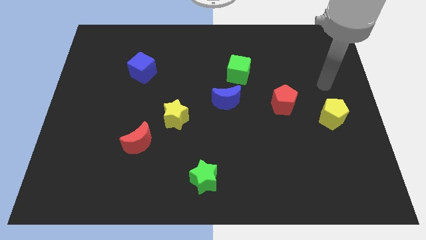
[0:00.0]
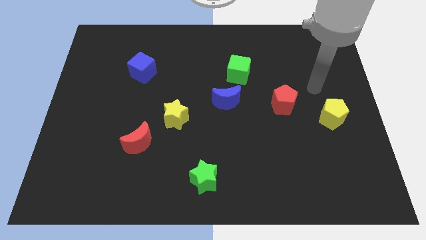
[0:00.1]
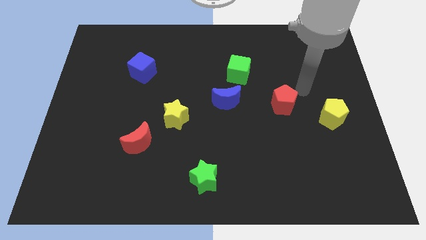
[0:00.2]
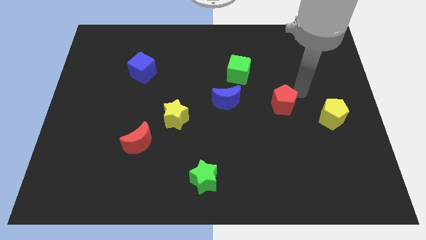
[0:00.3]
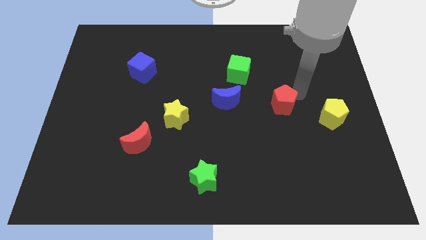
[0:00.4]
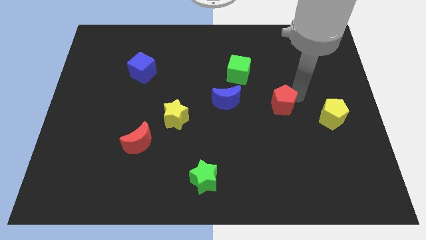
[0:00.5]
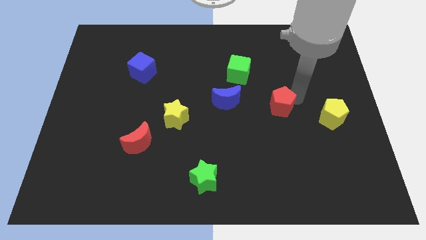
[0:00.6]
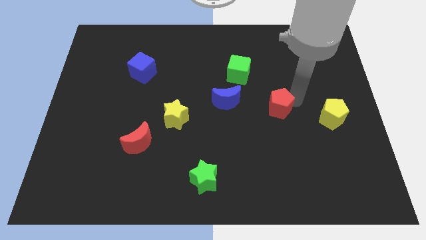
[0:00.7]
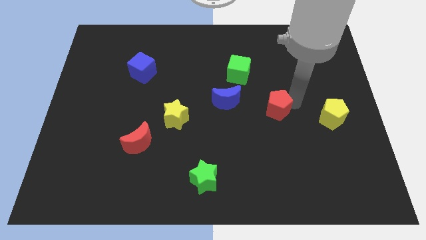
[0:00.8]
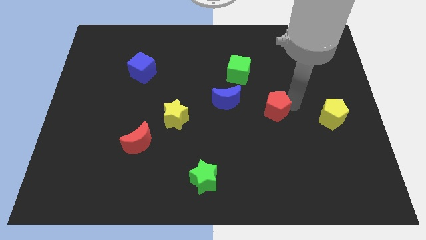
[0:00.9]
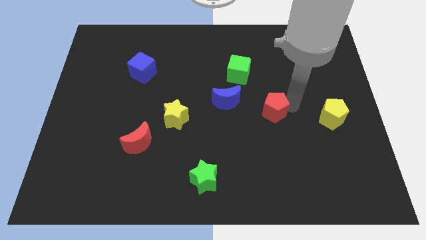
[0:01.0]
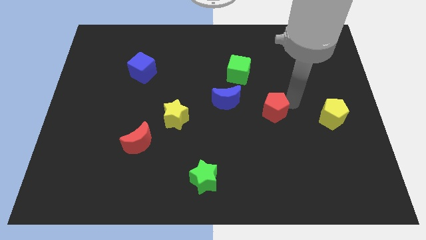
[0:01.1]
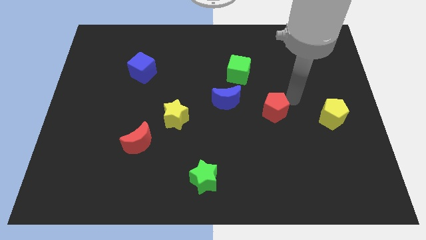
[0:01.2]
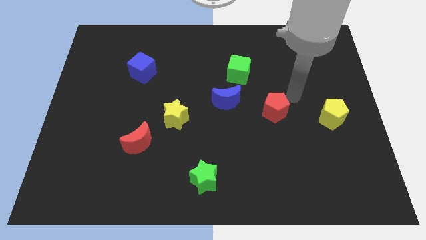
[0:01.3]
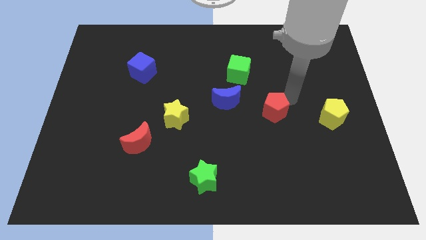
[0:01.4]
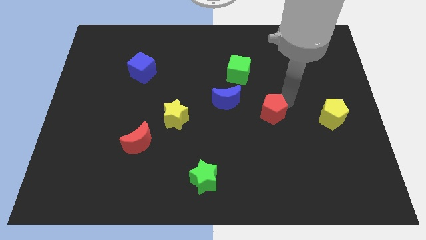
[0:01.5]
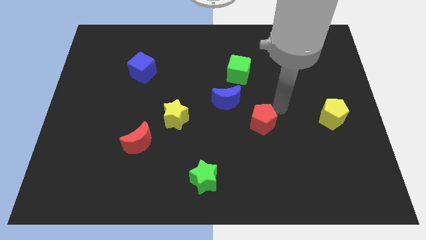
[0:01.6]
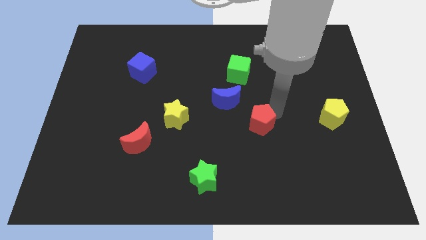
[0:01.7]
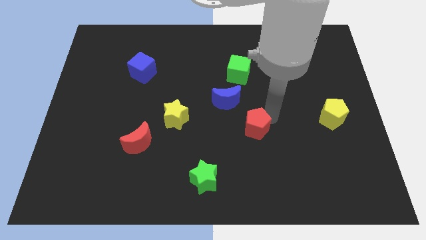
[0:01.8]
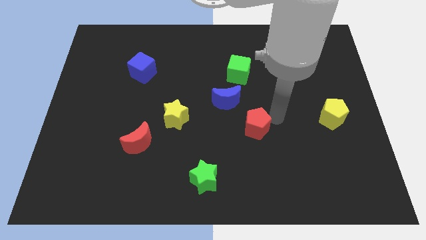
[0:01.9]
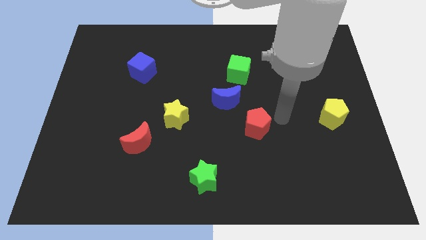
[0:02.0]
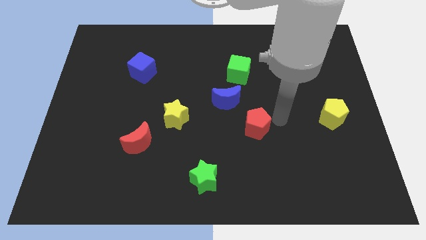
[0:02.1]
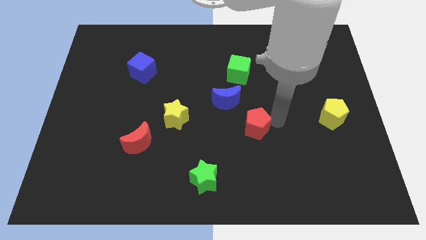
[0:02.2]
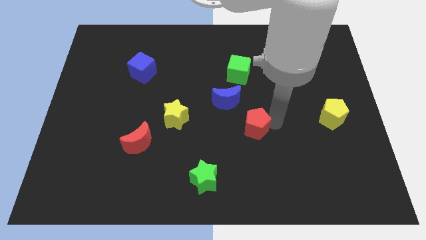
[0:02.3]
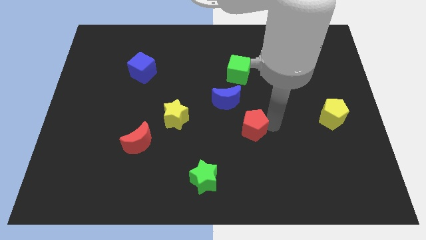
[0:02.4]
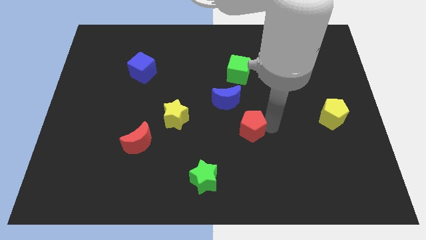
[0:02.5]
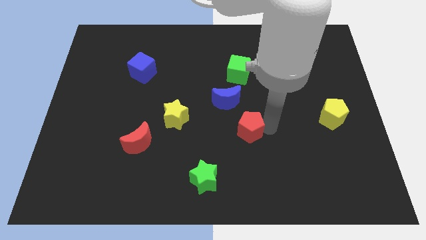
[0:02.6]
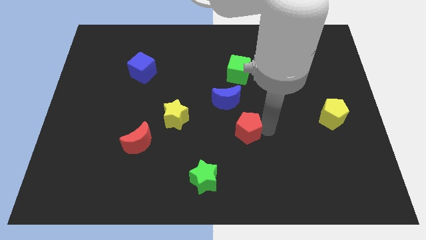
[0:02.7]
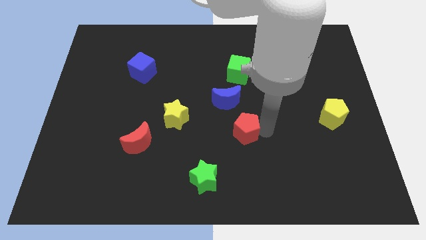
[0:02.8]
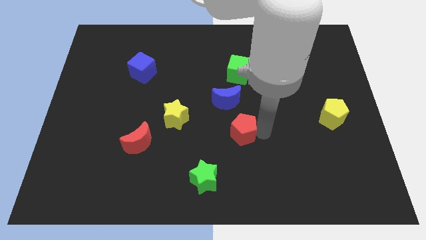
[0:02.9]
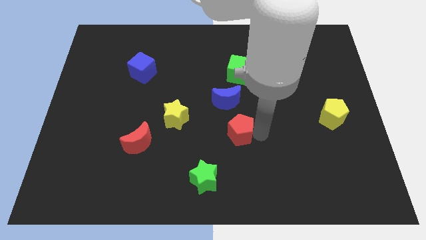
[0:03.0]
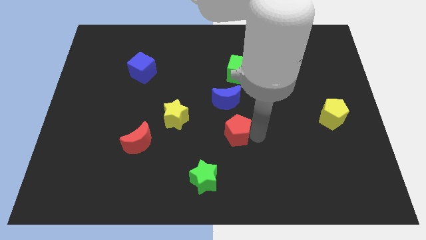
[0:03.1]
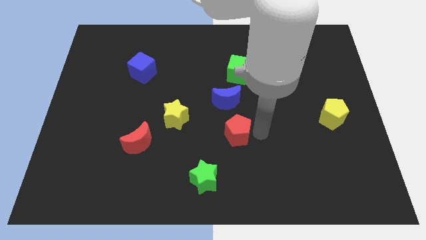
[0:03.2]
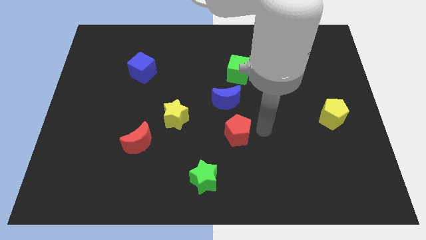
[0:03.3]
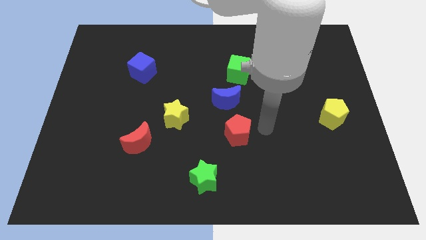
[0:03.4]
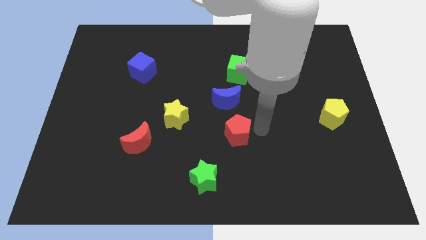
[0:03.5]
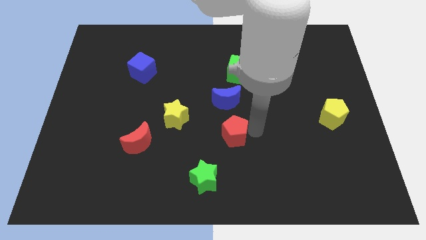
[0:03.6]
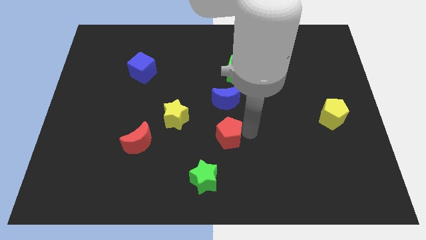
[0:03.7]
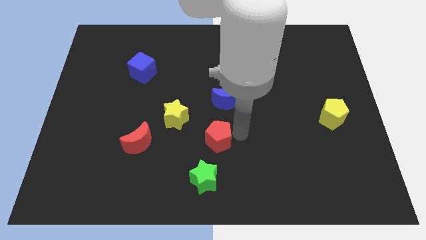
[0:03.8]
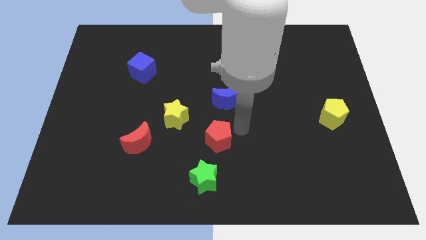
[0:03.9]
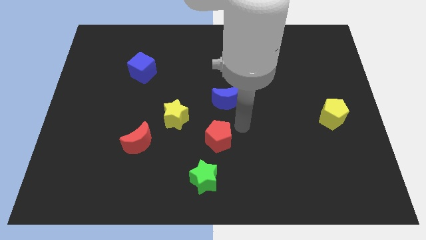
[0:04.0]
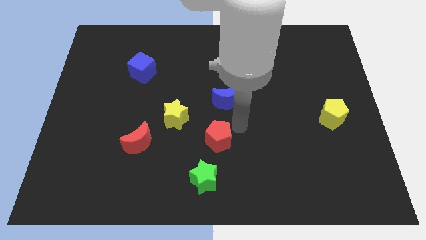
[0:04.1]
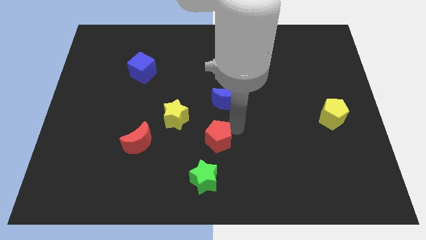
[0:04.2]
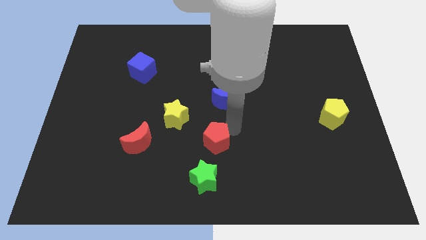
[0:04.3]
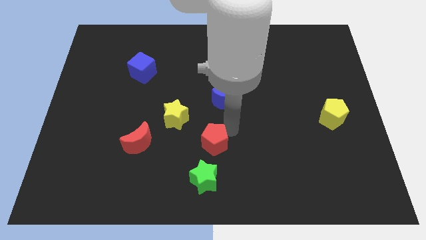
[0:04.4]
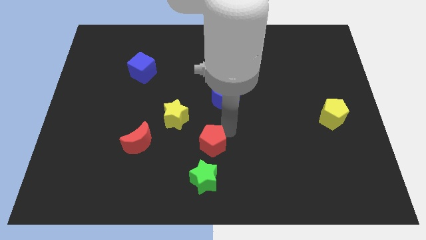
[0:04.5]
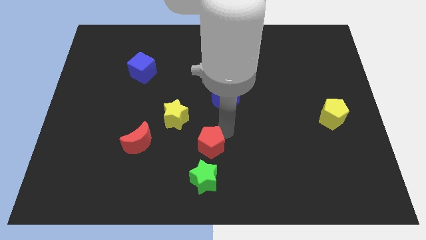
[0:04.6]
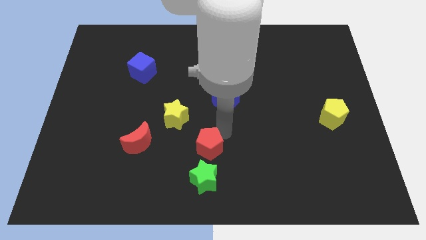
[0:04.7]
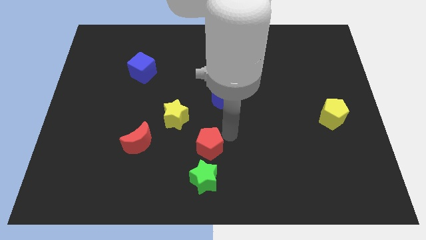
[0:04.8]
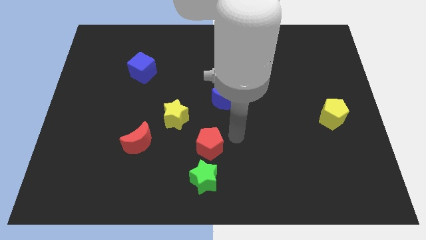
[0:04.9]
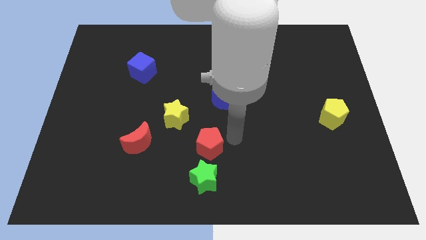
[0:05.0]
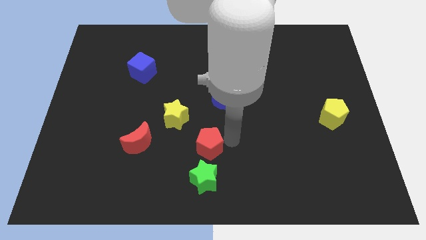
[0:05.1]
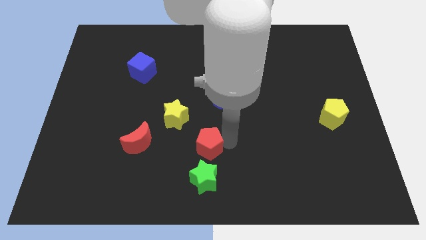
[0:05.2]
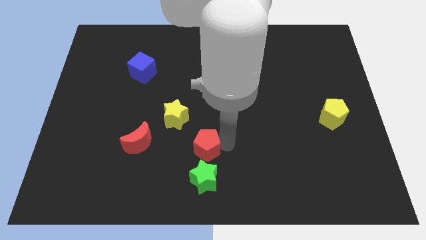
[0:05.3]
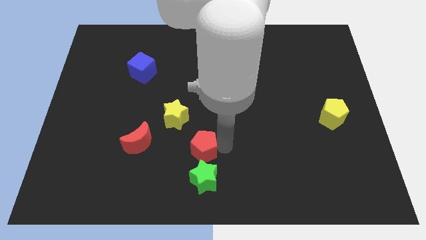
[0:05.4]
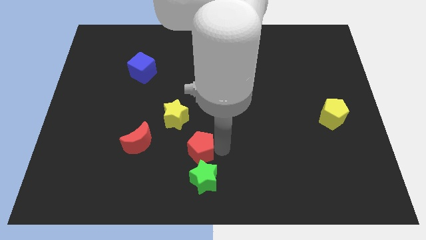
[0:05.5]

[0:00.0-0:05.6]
slide the red pentagon to the top left of the green star

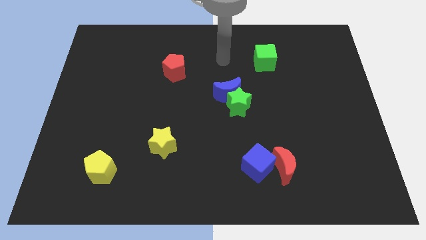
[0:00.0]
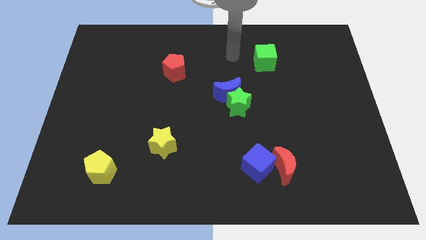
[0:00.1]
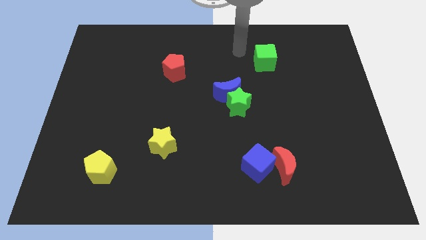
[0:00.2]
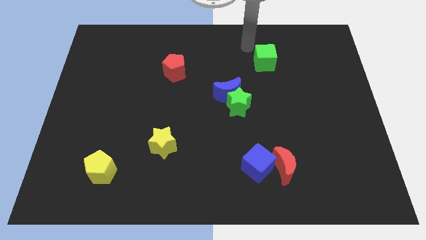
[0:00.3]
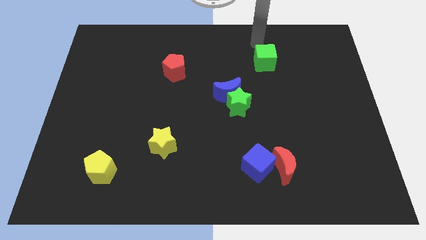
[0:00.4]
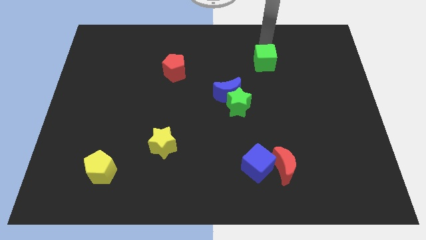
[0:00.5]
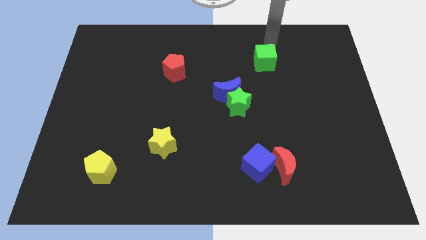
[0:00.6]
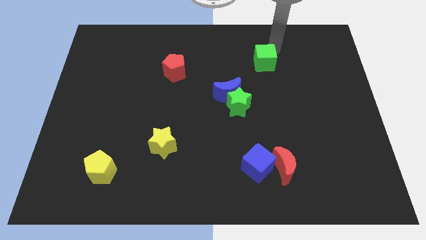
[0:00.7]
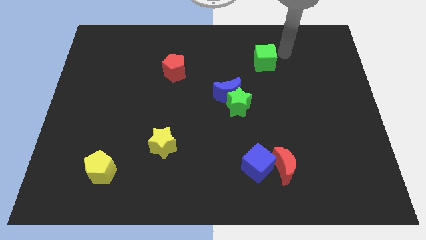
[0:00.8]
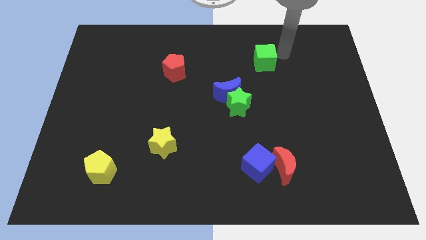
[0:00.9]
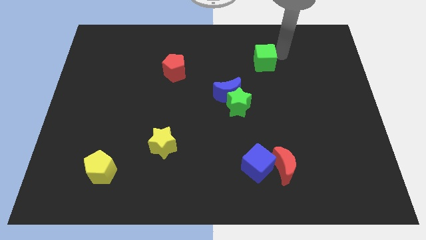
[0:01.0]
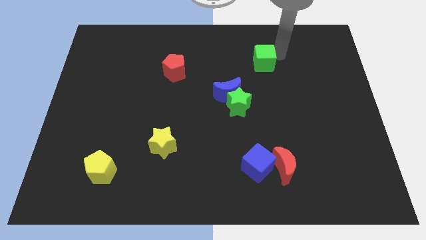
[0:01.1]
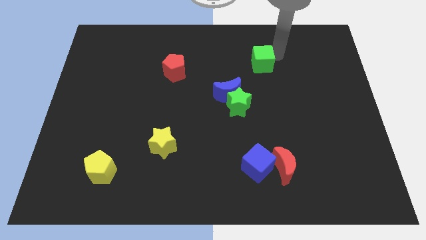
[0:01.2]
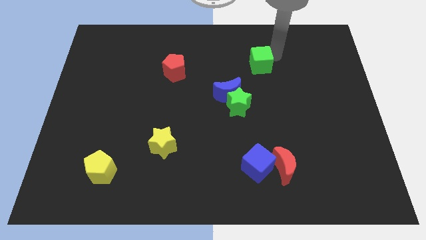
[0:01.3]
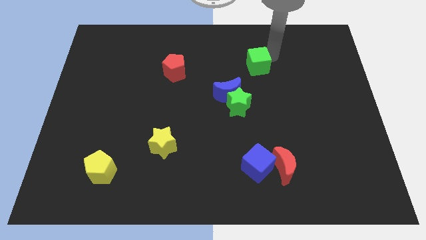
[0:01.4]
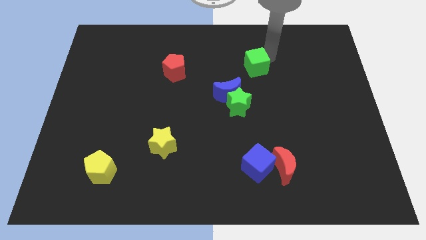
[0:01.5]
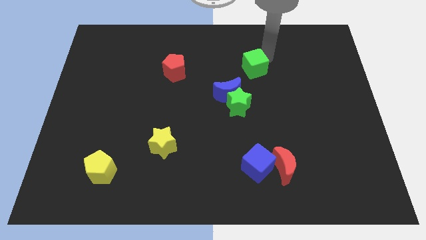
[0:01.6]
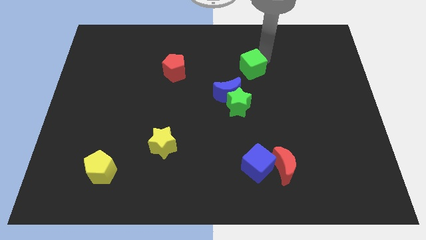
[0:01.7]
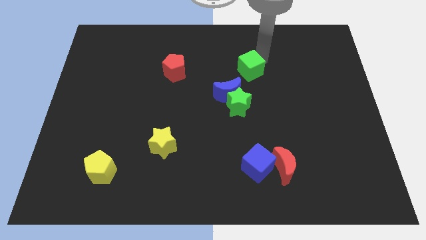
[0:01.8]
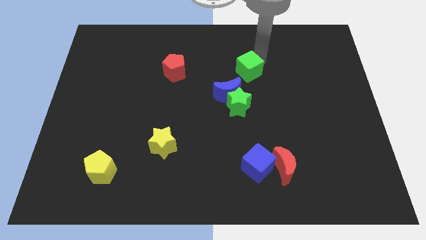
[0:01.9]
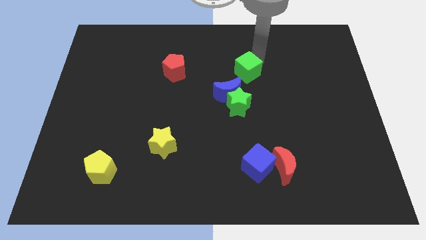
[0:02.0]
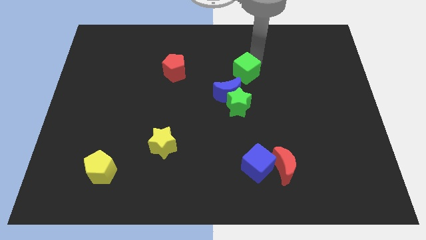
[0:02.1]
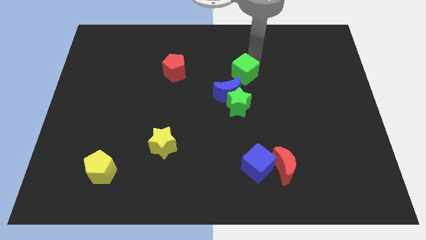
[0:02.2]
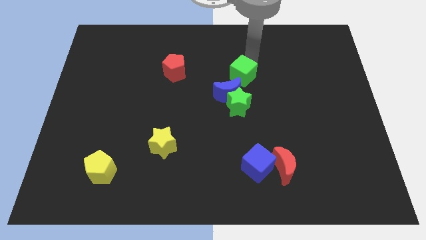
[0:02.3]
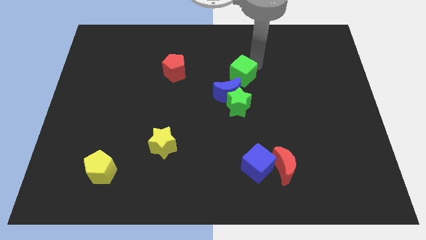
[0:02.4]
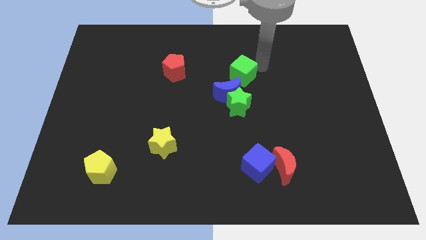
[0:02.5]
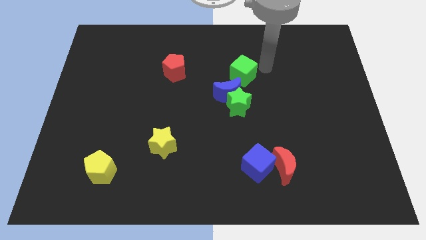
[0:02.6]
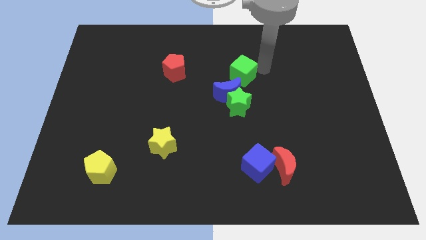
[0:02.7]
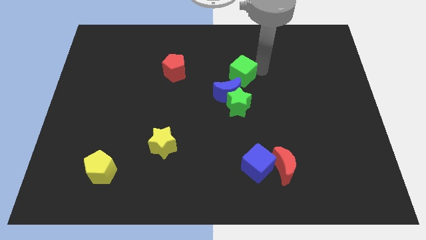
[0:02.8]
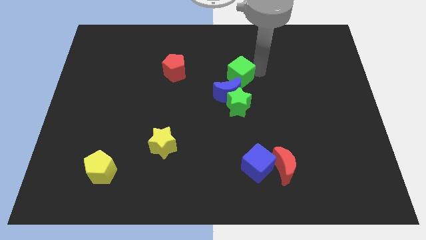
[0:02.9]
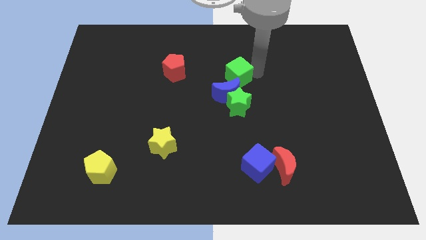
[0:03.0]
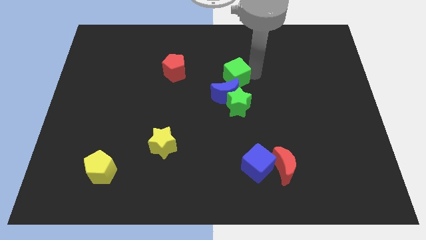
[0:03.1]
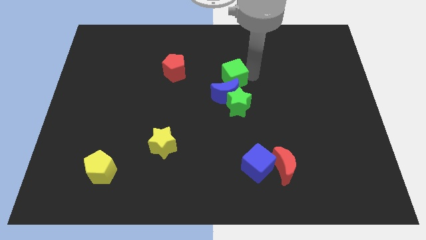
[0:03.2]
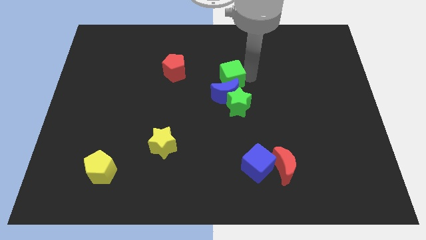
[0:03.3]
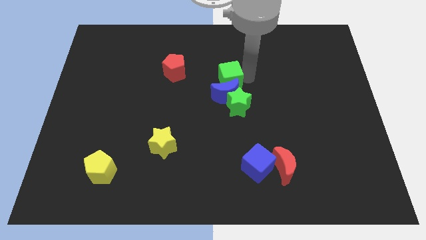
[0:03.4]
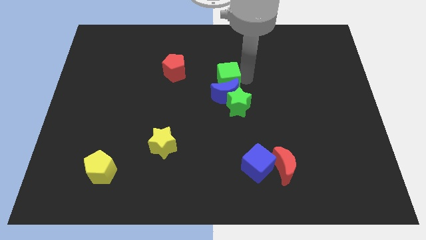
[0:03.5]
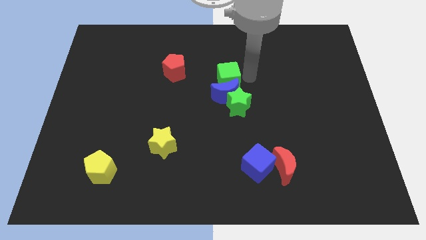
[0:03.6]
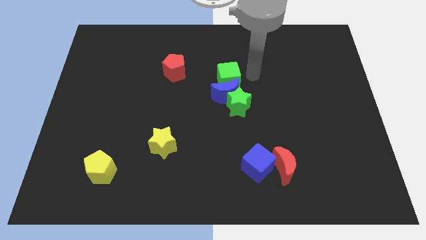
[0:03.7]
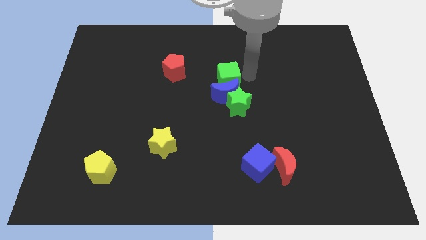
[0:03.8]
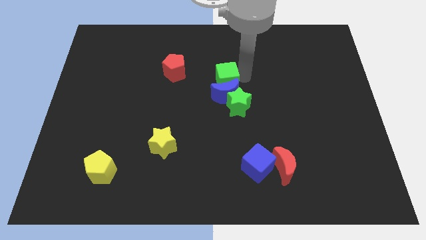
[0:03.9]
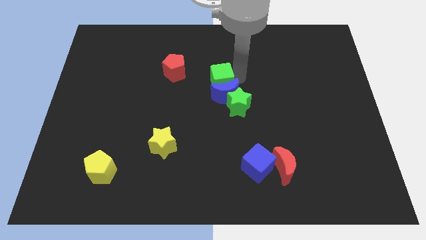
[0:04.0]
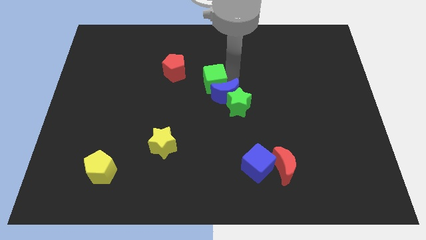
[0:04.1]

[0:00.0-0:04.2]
put the green cube just left of the blue moon
